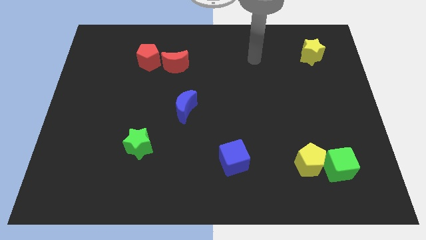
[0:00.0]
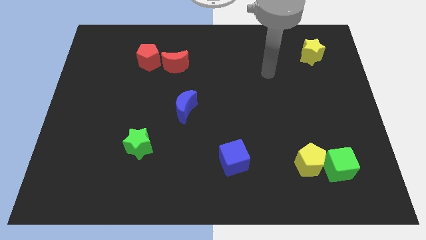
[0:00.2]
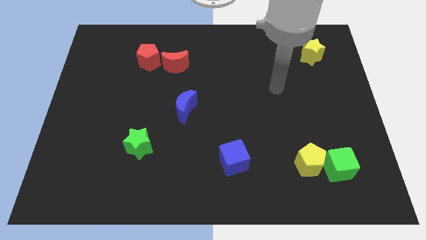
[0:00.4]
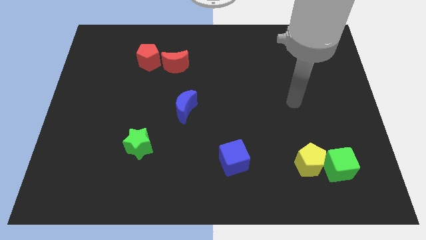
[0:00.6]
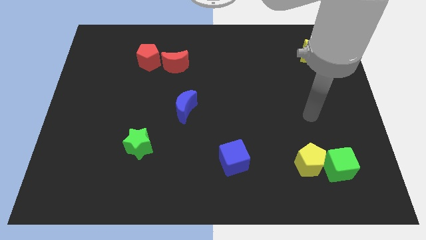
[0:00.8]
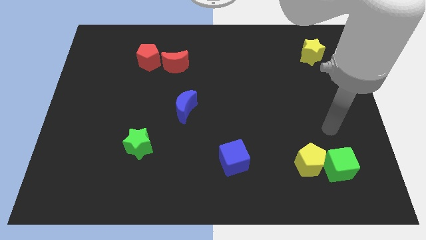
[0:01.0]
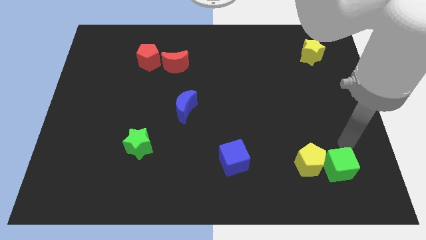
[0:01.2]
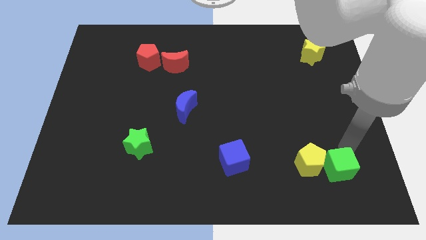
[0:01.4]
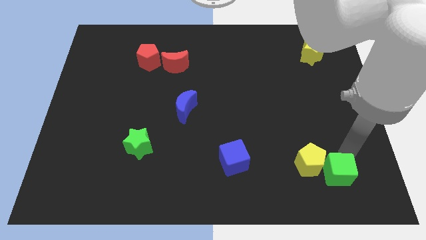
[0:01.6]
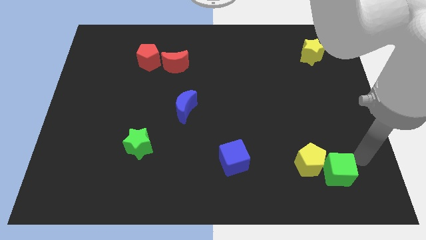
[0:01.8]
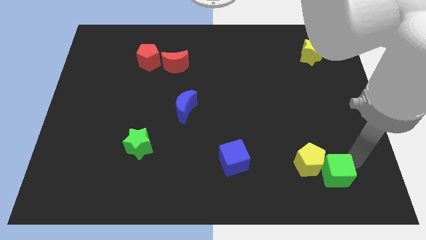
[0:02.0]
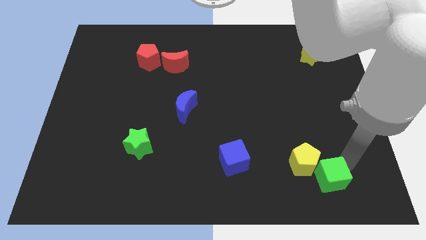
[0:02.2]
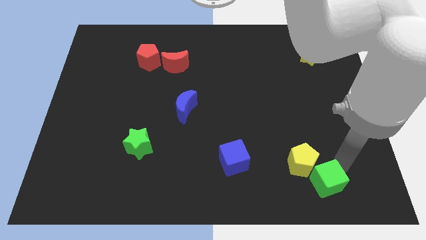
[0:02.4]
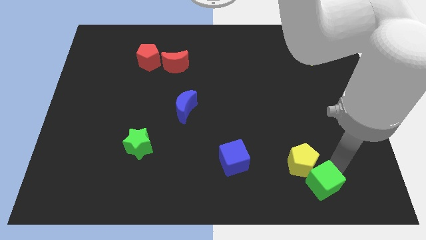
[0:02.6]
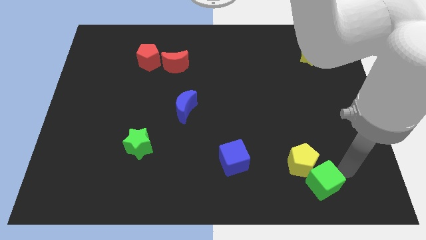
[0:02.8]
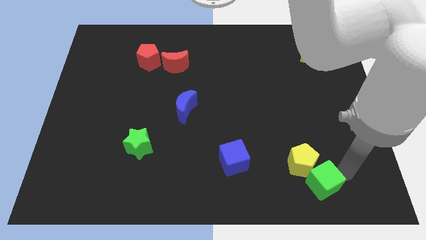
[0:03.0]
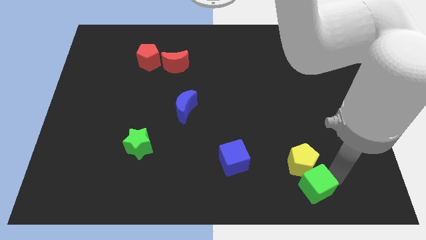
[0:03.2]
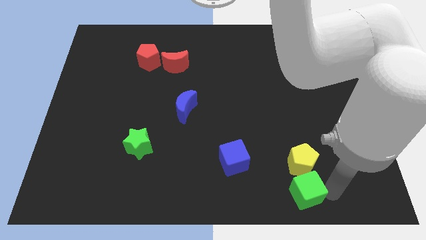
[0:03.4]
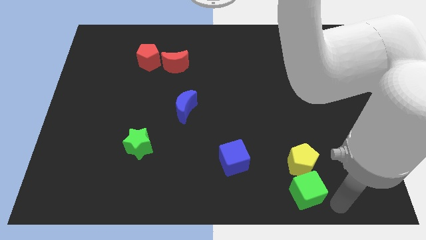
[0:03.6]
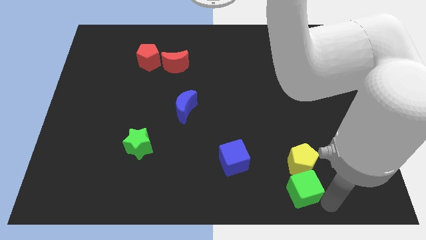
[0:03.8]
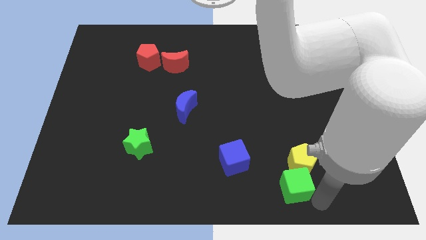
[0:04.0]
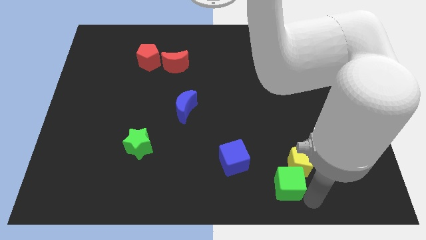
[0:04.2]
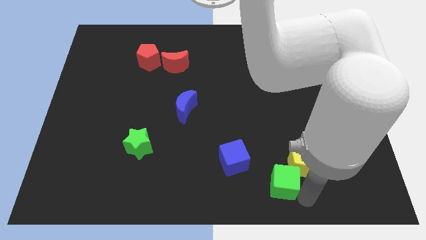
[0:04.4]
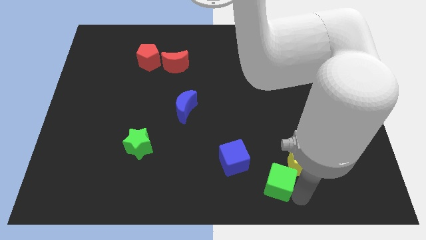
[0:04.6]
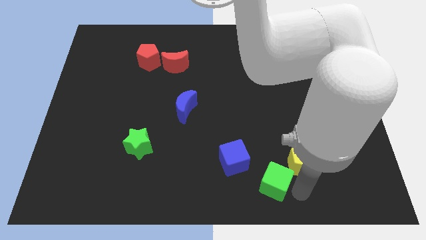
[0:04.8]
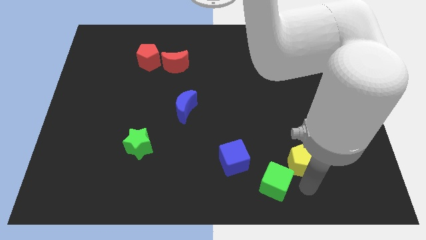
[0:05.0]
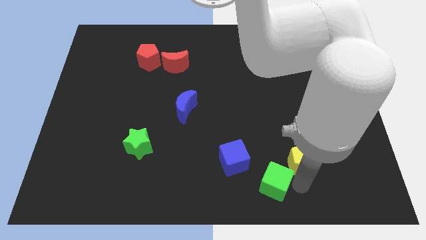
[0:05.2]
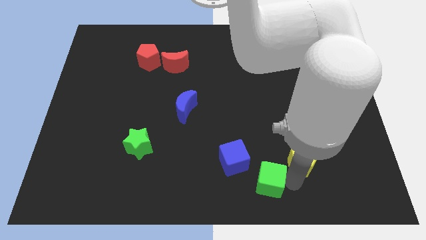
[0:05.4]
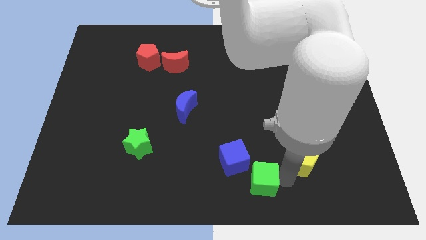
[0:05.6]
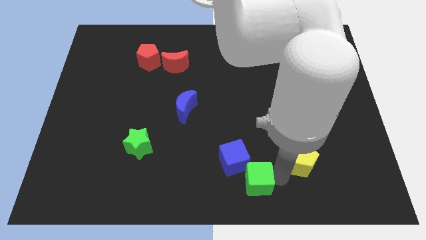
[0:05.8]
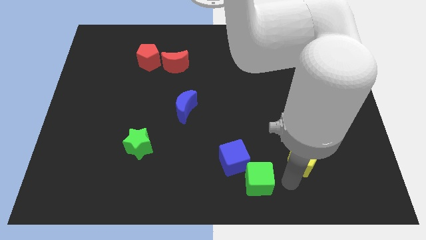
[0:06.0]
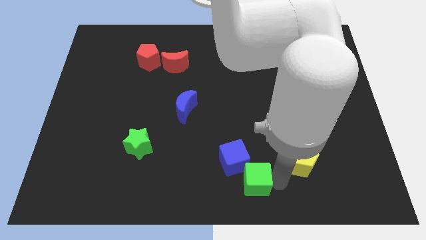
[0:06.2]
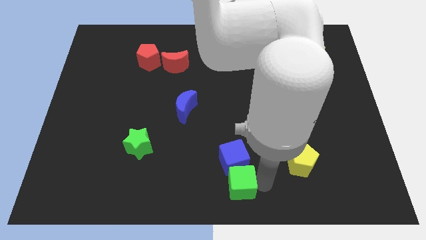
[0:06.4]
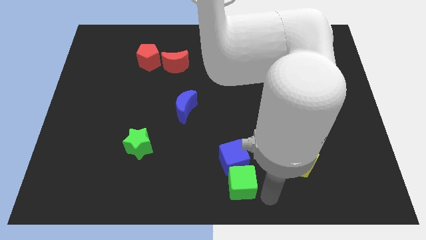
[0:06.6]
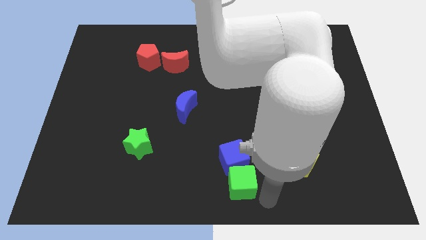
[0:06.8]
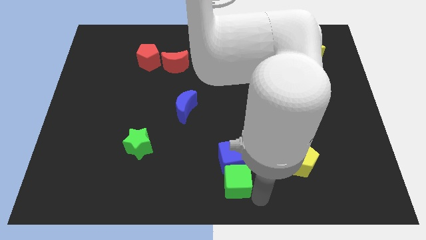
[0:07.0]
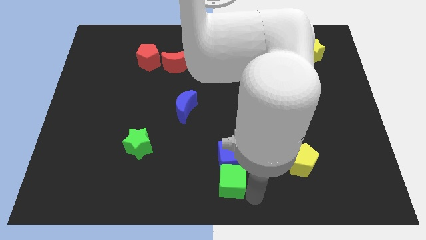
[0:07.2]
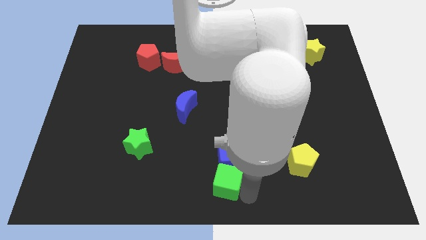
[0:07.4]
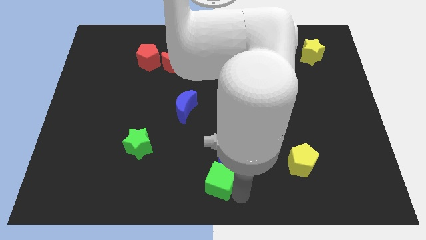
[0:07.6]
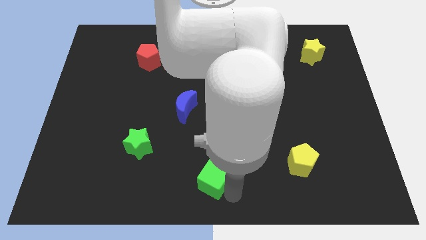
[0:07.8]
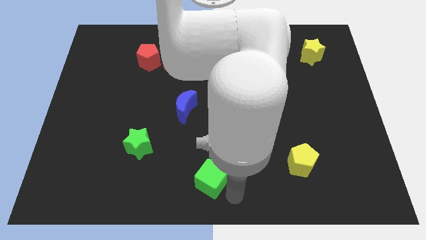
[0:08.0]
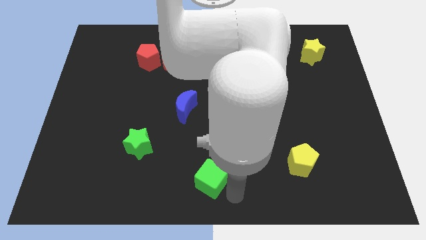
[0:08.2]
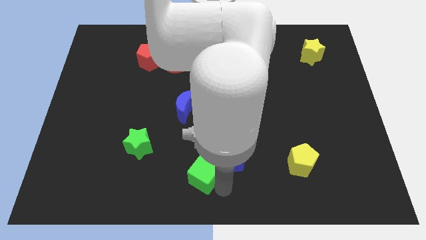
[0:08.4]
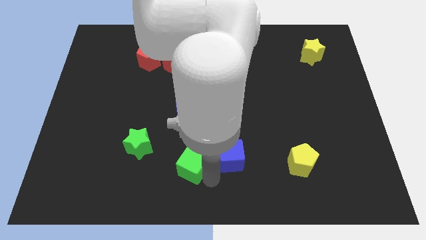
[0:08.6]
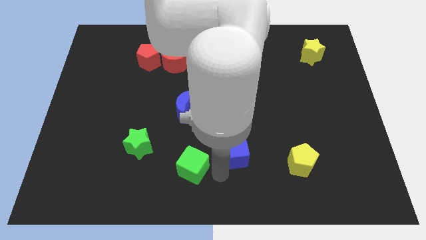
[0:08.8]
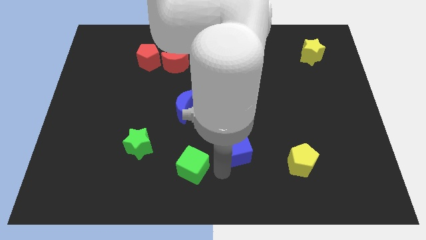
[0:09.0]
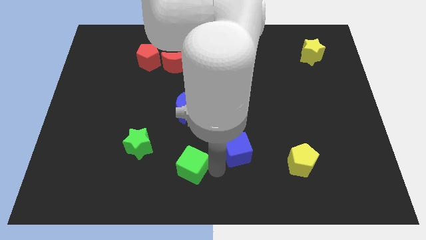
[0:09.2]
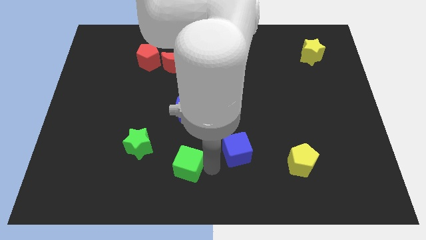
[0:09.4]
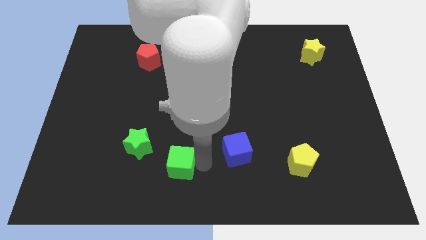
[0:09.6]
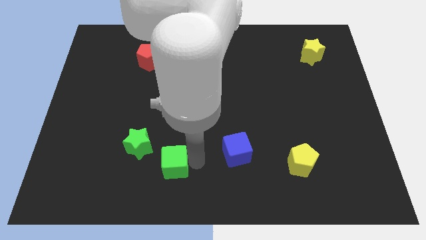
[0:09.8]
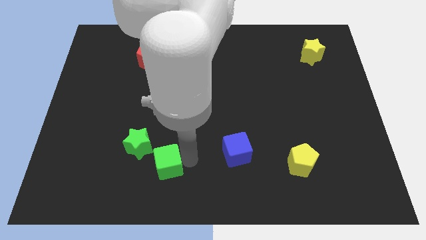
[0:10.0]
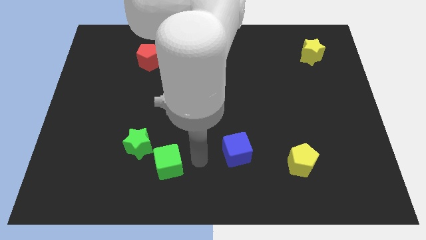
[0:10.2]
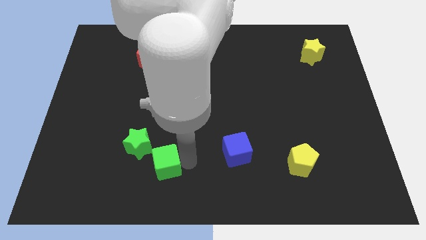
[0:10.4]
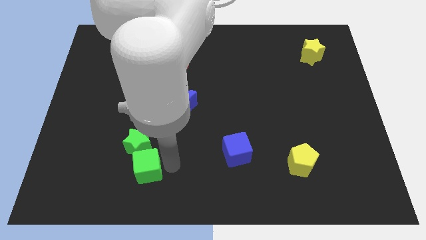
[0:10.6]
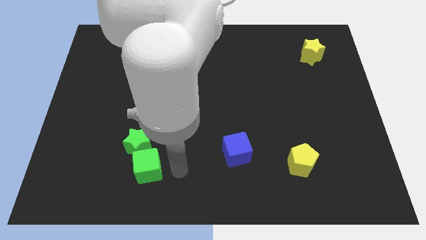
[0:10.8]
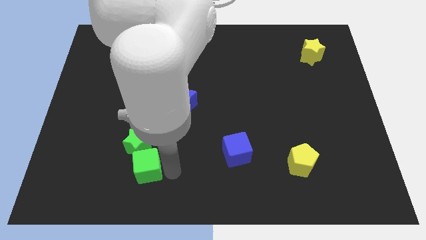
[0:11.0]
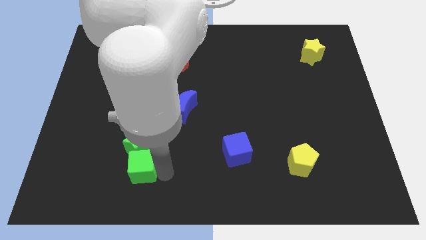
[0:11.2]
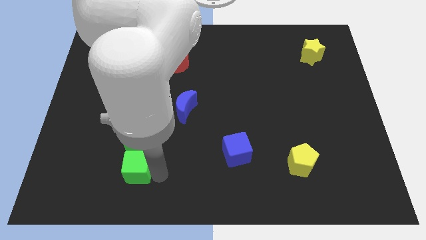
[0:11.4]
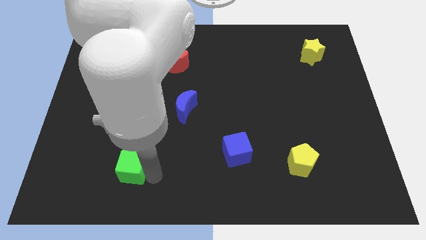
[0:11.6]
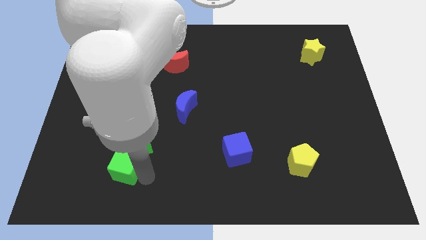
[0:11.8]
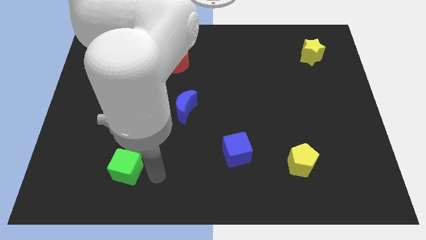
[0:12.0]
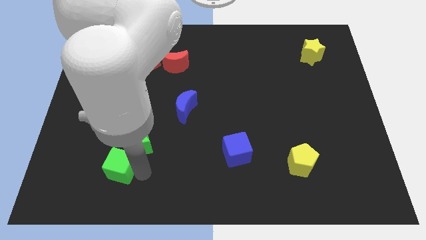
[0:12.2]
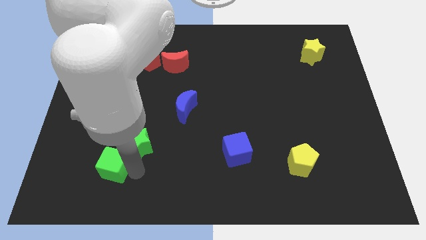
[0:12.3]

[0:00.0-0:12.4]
move the green cube left of the green star
